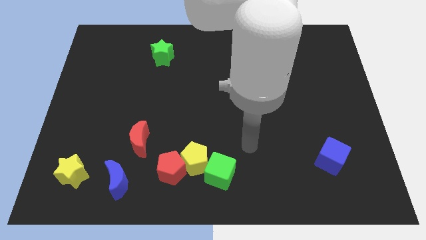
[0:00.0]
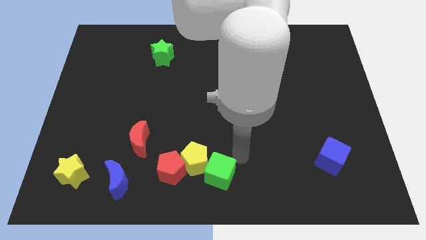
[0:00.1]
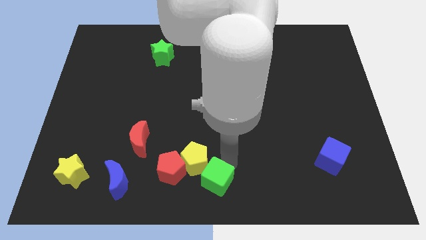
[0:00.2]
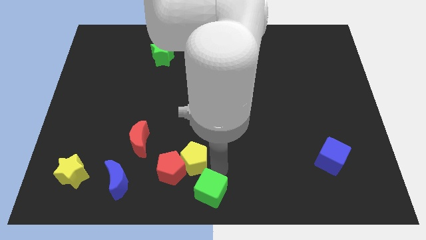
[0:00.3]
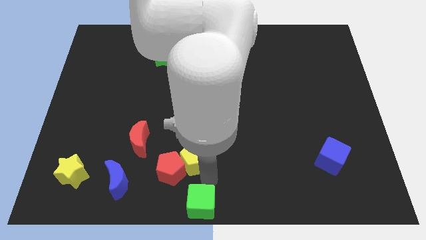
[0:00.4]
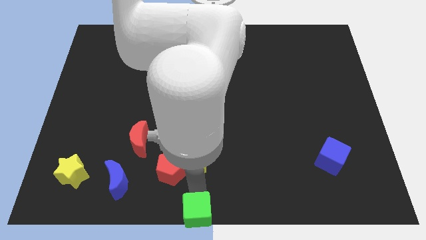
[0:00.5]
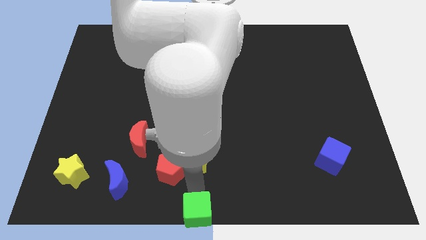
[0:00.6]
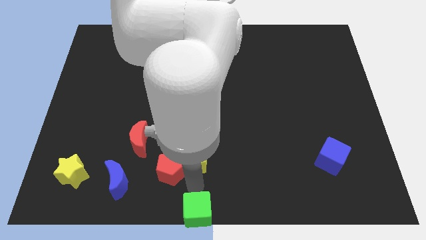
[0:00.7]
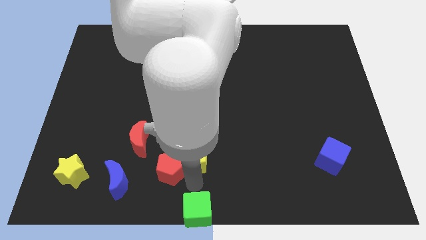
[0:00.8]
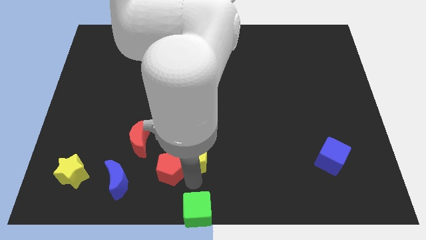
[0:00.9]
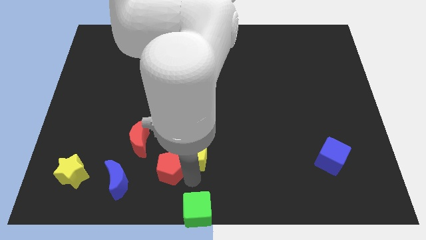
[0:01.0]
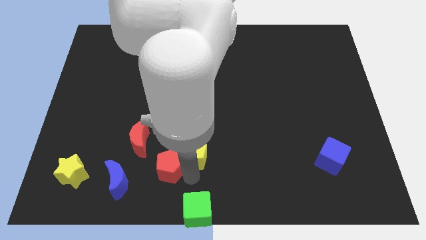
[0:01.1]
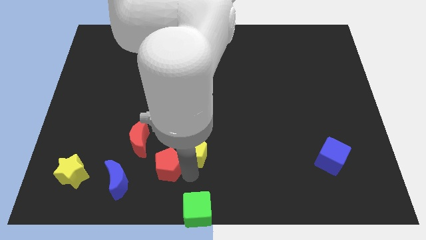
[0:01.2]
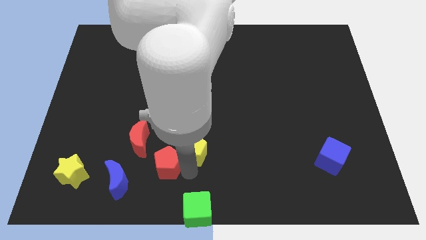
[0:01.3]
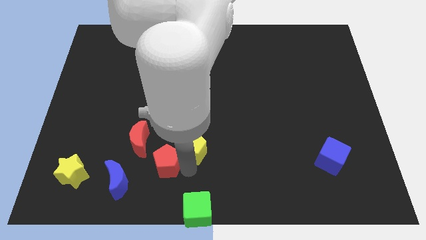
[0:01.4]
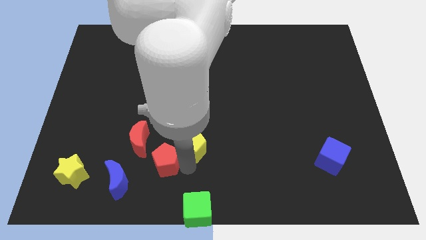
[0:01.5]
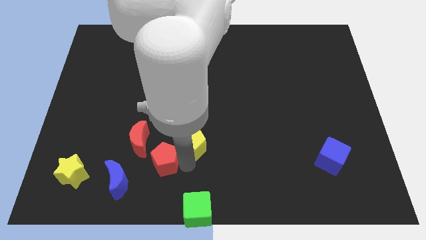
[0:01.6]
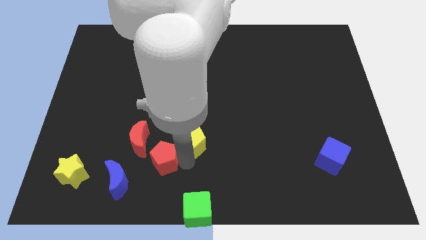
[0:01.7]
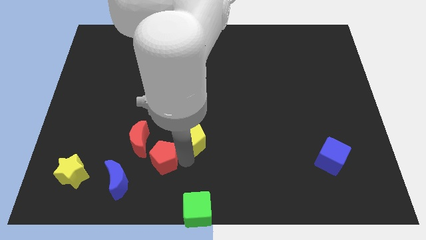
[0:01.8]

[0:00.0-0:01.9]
separate the yellow pentagon from the red pentagon and green cube

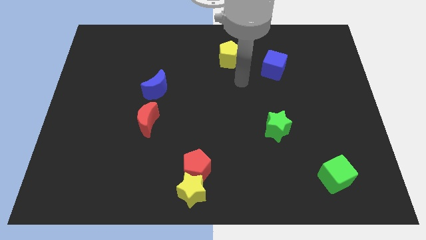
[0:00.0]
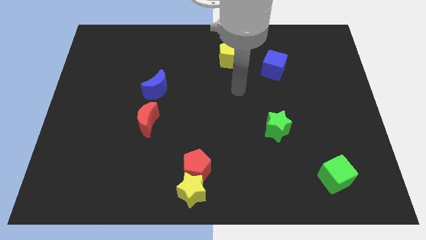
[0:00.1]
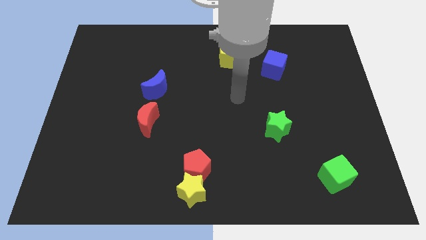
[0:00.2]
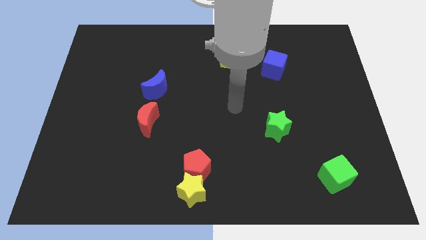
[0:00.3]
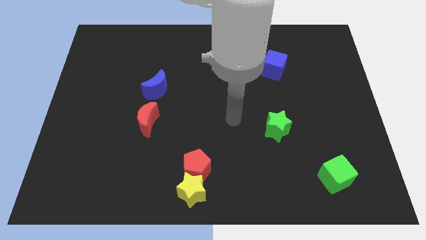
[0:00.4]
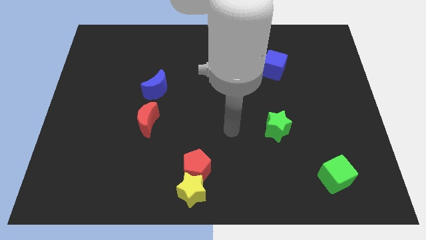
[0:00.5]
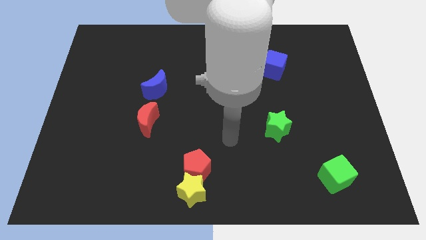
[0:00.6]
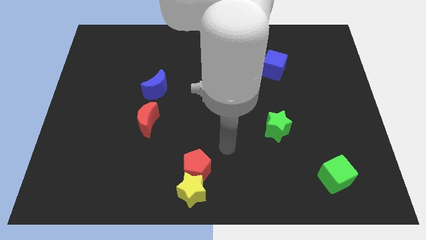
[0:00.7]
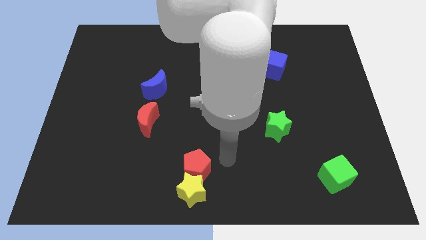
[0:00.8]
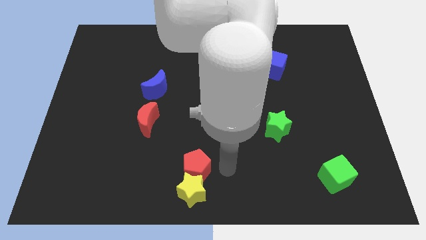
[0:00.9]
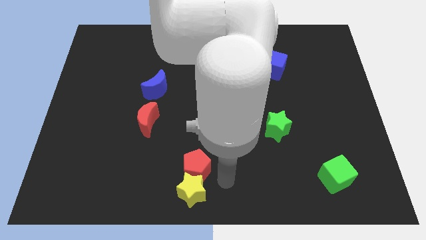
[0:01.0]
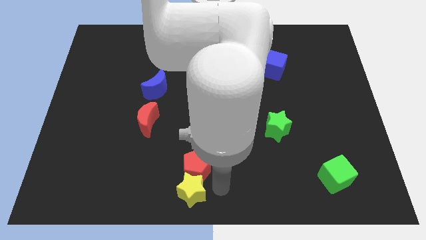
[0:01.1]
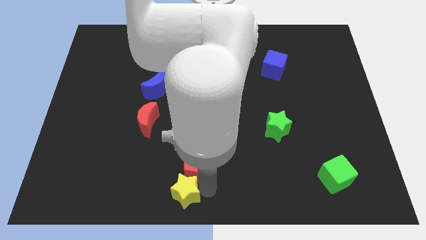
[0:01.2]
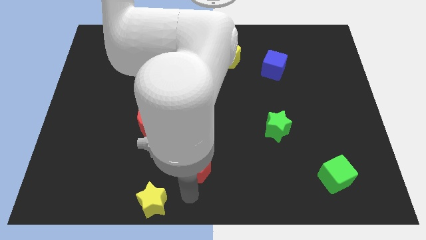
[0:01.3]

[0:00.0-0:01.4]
move the red pentagon away from the yellow star

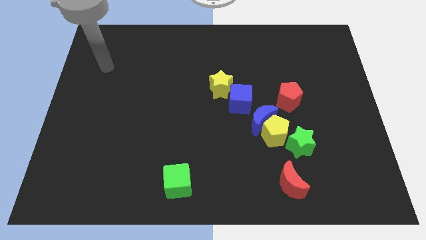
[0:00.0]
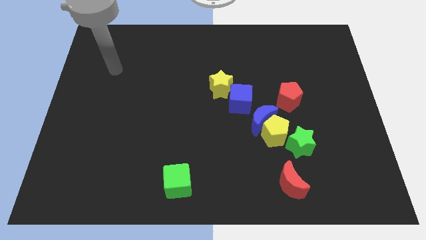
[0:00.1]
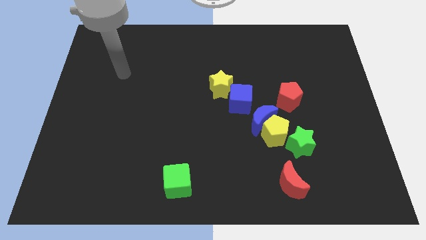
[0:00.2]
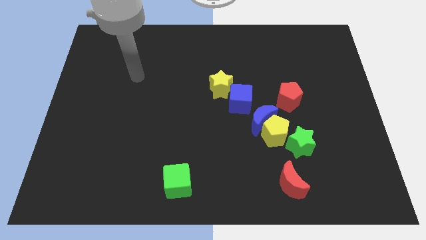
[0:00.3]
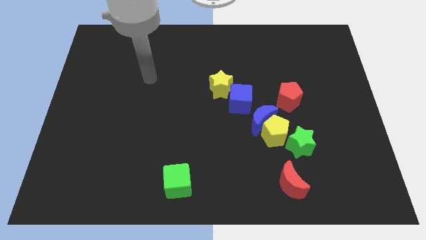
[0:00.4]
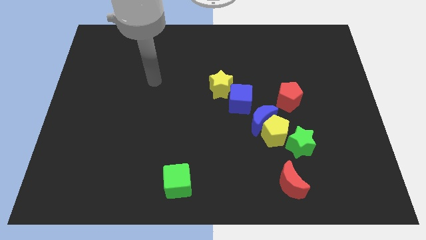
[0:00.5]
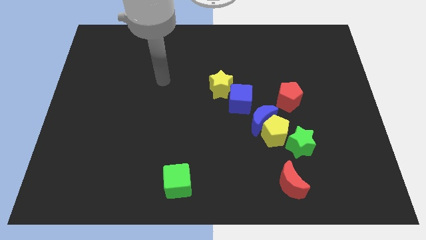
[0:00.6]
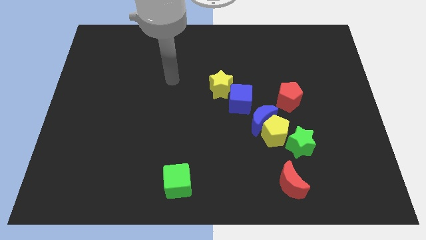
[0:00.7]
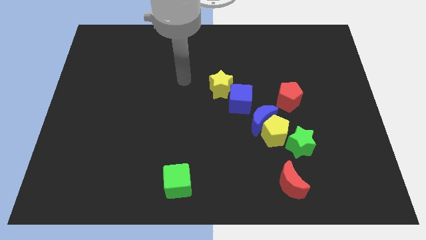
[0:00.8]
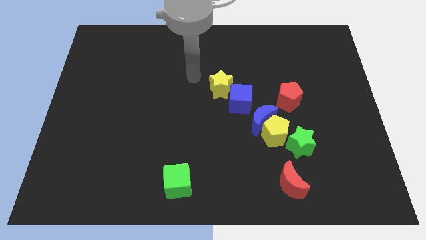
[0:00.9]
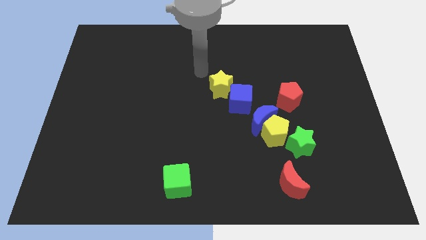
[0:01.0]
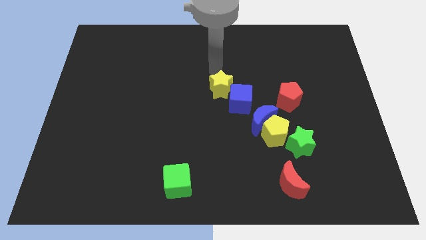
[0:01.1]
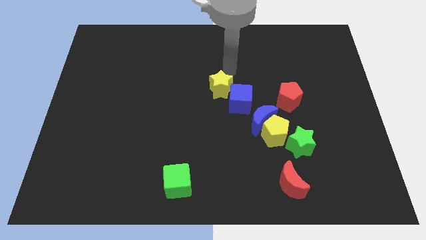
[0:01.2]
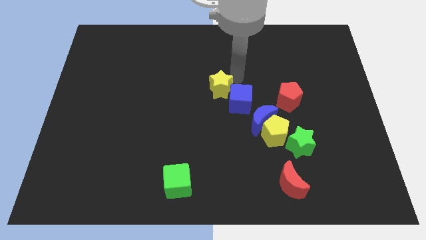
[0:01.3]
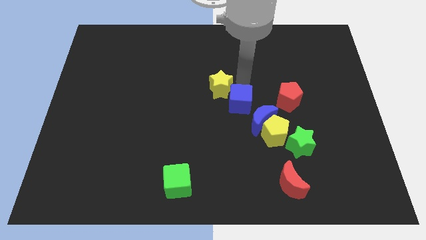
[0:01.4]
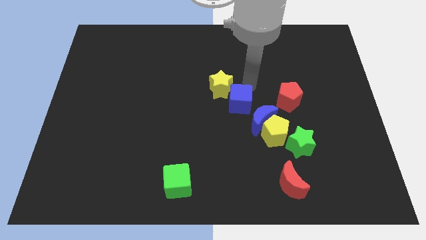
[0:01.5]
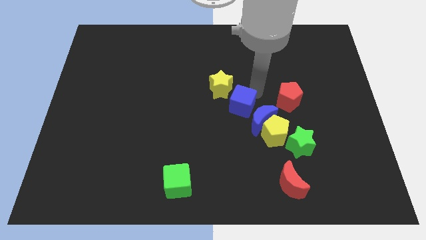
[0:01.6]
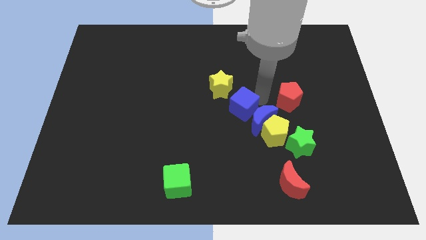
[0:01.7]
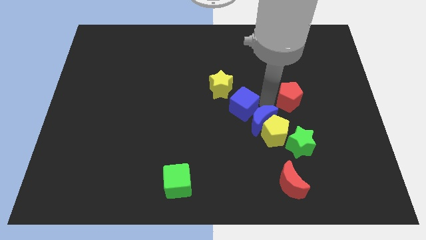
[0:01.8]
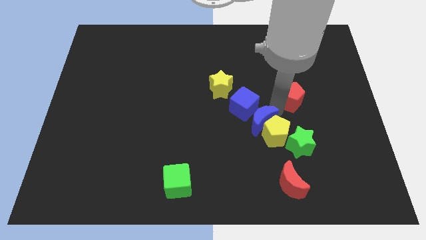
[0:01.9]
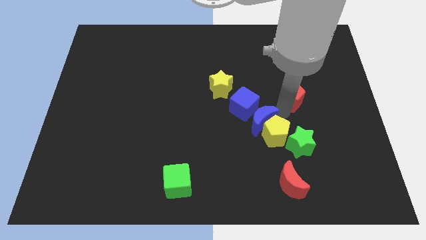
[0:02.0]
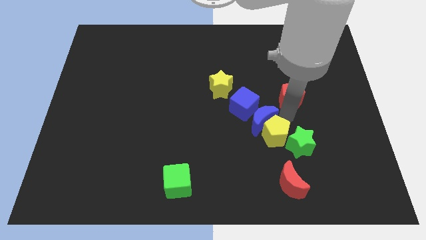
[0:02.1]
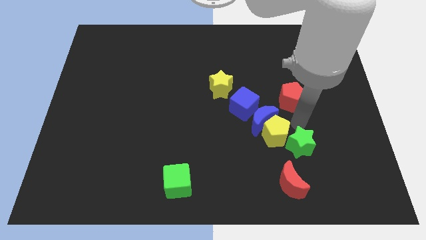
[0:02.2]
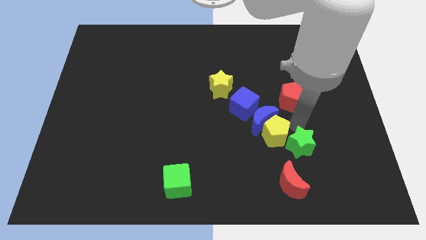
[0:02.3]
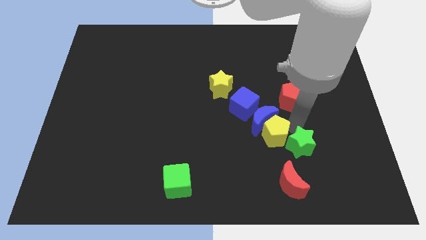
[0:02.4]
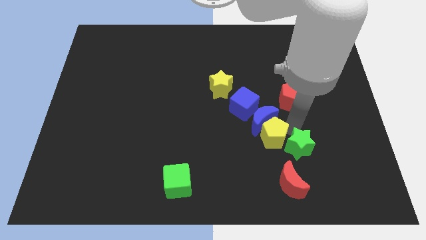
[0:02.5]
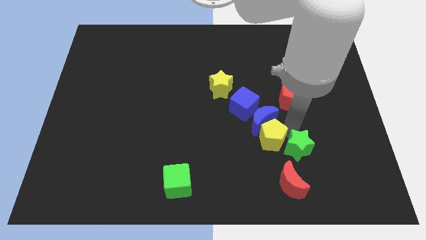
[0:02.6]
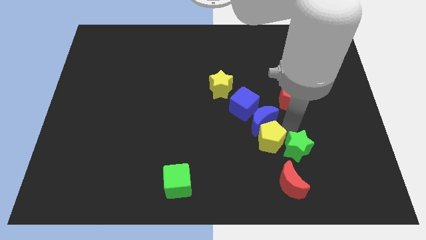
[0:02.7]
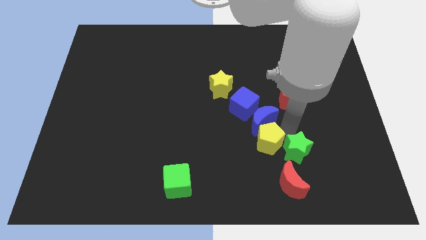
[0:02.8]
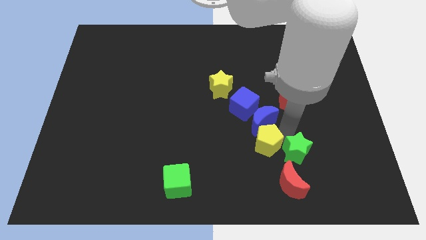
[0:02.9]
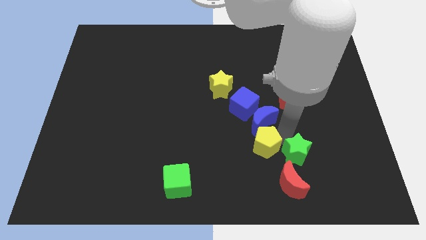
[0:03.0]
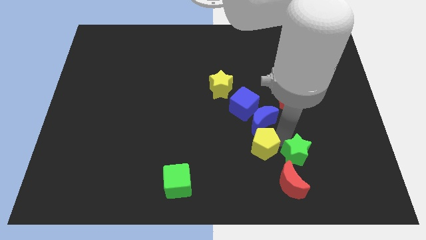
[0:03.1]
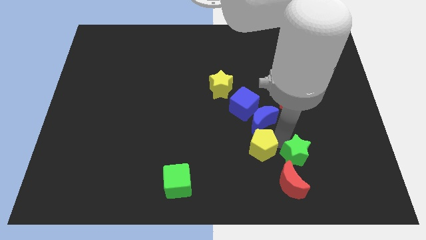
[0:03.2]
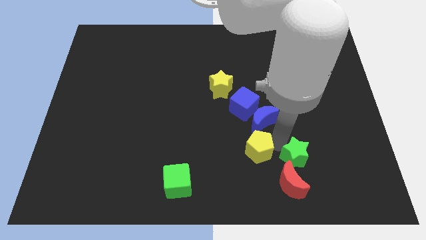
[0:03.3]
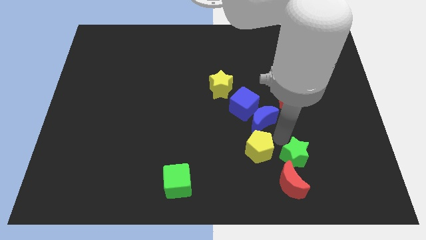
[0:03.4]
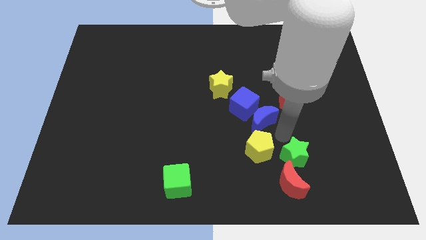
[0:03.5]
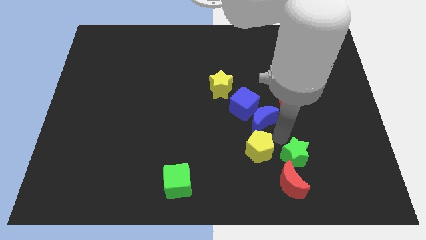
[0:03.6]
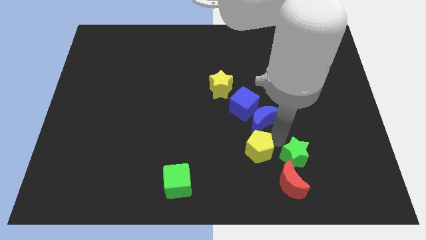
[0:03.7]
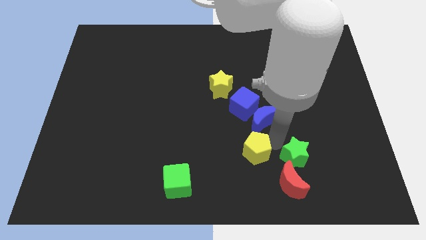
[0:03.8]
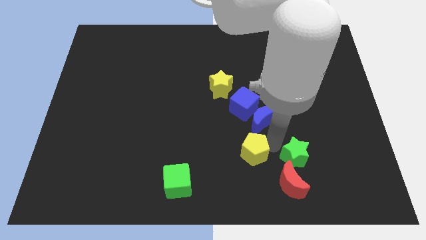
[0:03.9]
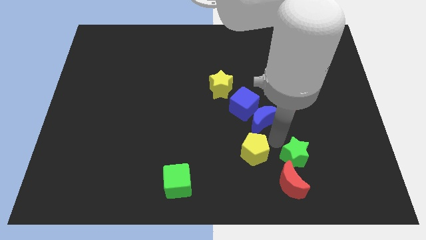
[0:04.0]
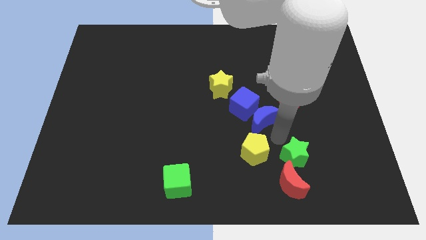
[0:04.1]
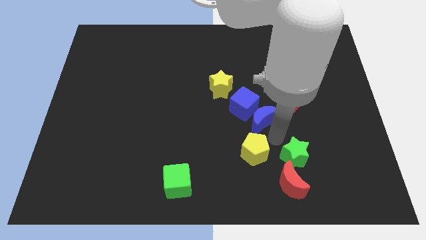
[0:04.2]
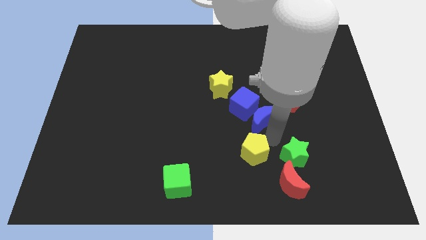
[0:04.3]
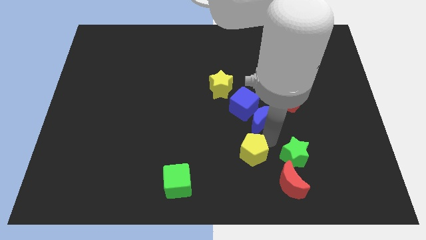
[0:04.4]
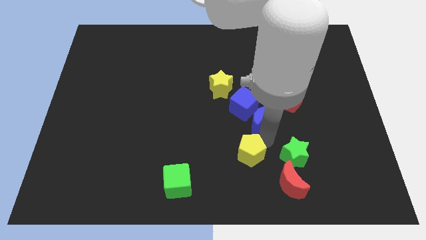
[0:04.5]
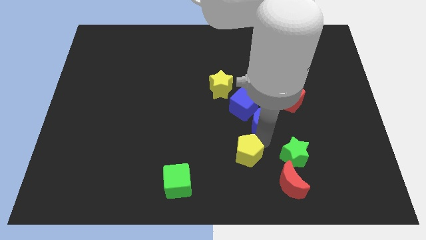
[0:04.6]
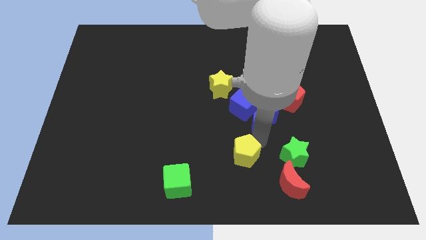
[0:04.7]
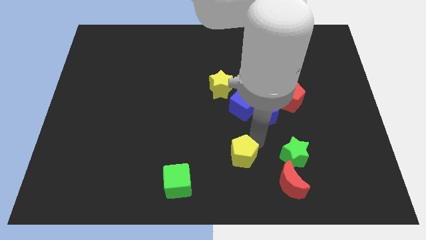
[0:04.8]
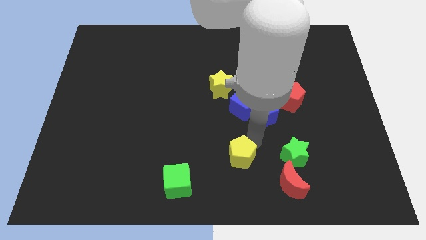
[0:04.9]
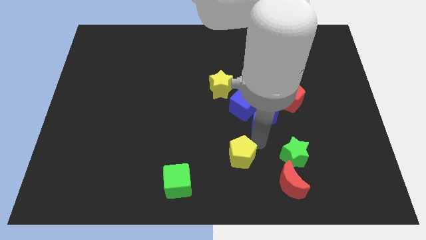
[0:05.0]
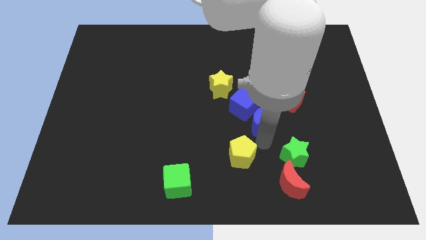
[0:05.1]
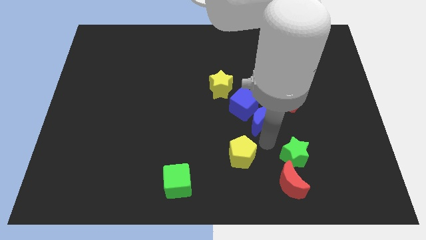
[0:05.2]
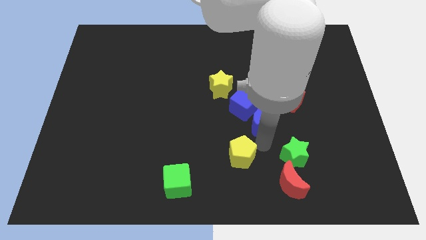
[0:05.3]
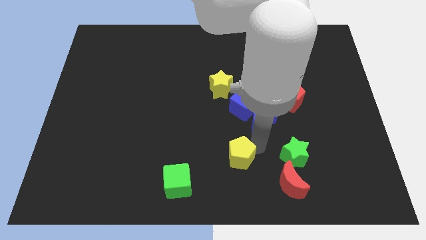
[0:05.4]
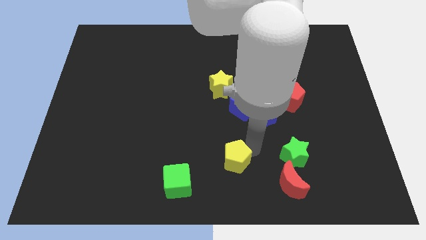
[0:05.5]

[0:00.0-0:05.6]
move the yellow pentagon away from the blue moon and green star

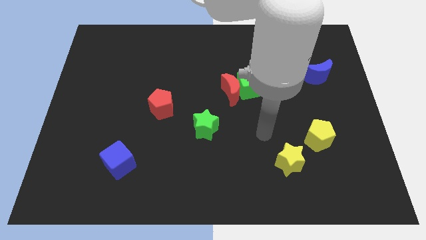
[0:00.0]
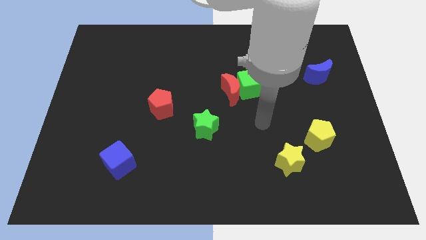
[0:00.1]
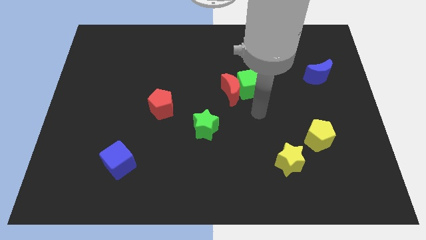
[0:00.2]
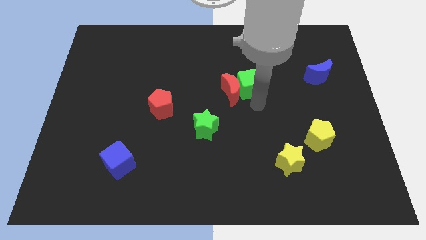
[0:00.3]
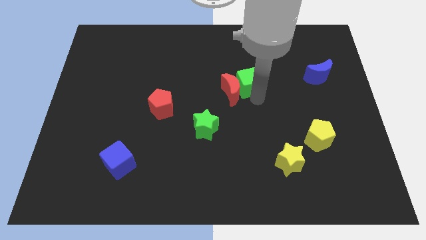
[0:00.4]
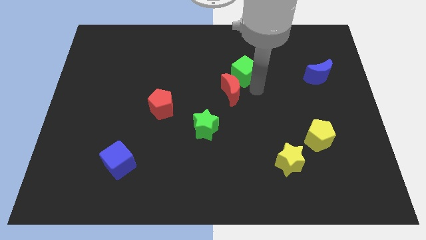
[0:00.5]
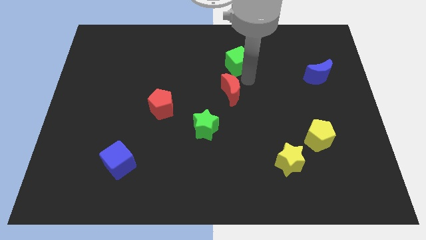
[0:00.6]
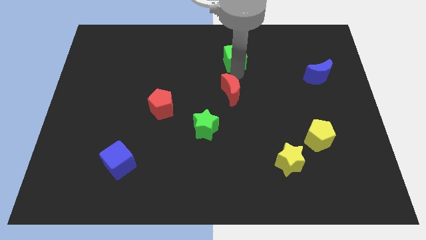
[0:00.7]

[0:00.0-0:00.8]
pull the red moon apart from the green cube
